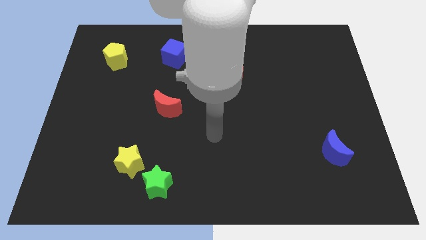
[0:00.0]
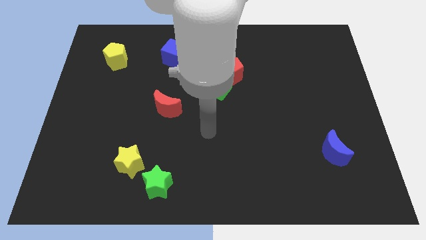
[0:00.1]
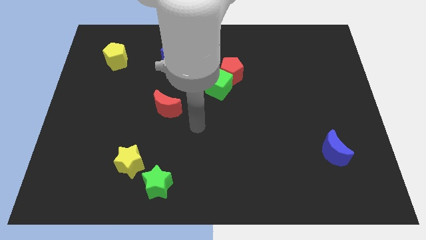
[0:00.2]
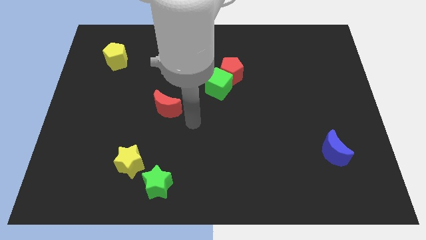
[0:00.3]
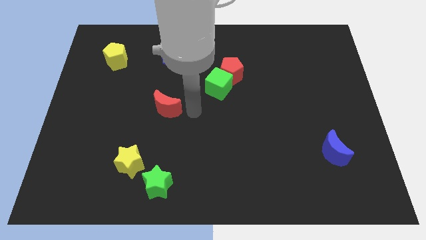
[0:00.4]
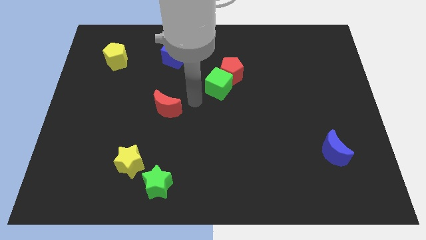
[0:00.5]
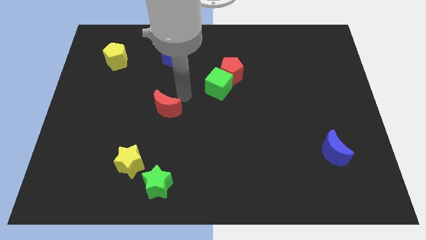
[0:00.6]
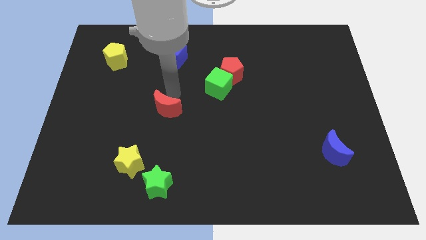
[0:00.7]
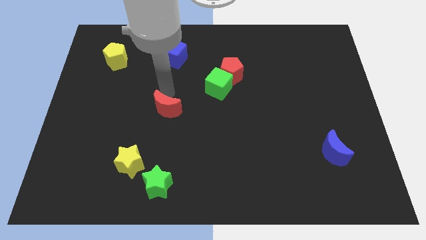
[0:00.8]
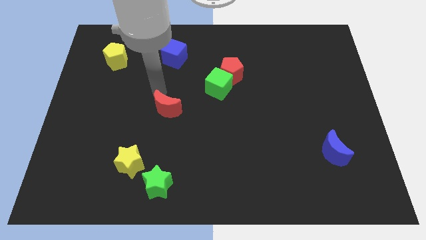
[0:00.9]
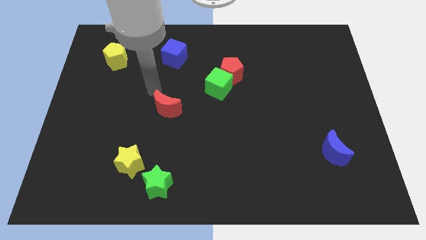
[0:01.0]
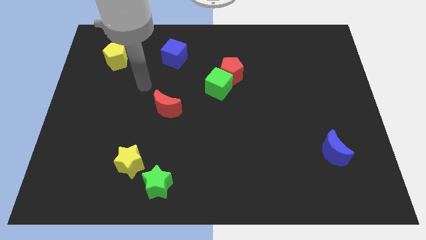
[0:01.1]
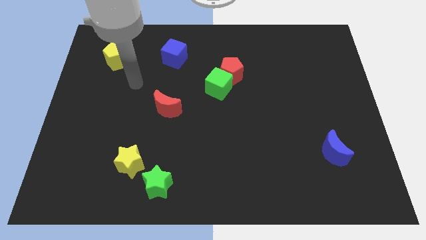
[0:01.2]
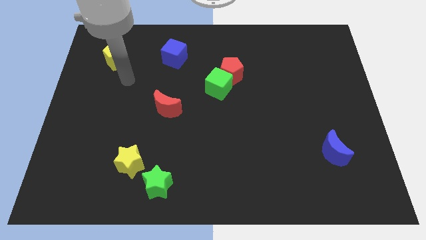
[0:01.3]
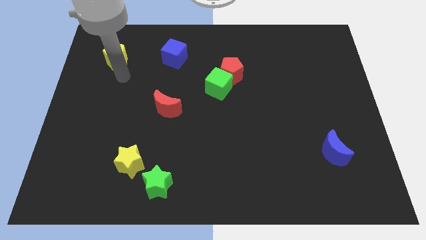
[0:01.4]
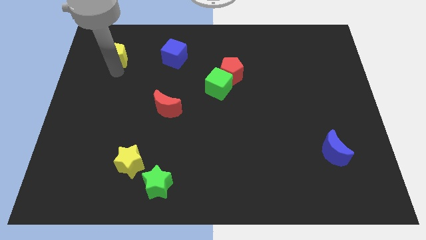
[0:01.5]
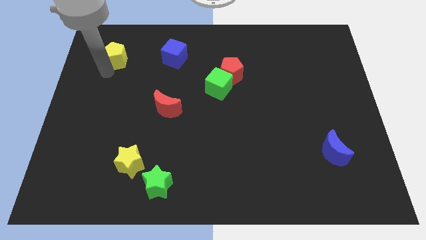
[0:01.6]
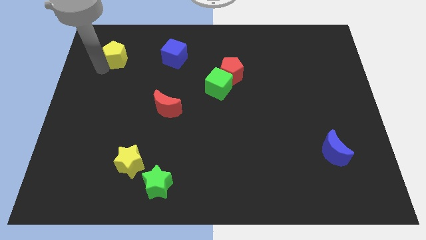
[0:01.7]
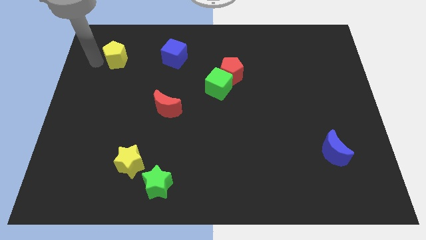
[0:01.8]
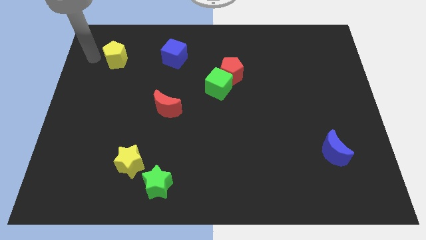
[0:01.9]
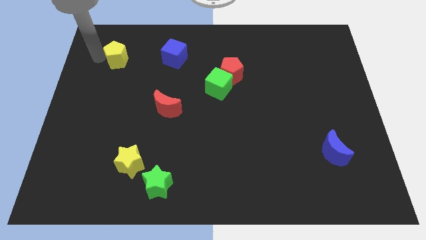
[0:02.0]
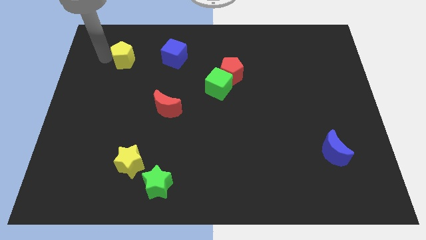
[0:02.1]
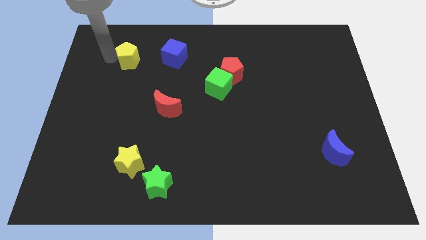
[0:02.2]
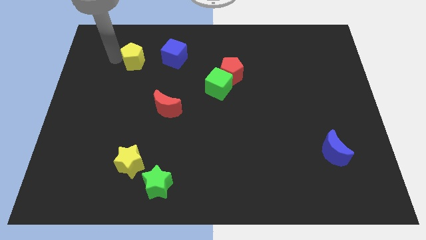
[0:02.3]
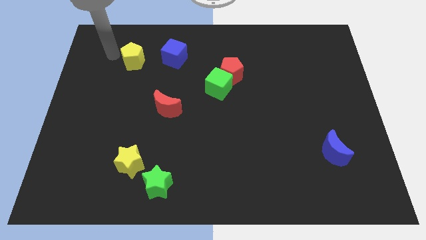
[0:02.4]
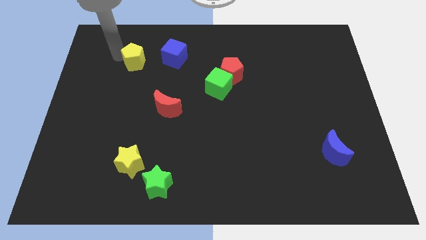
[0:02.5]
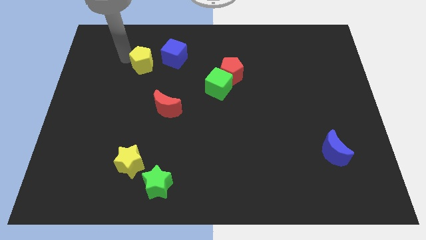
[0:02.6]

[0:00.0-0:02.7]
move the yellow pentagon a little bit right

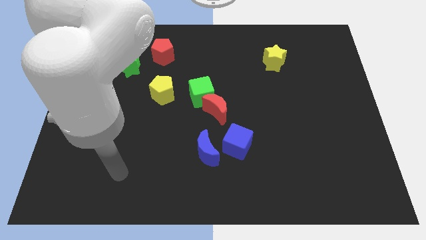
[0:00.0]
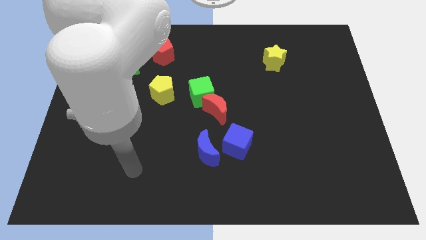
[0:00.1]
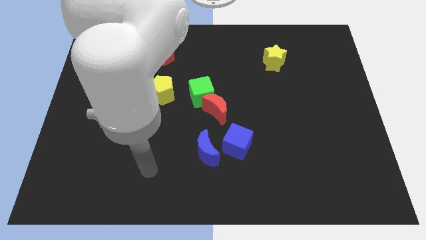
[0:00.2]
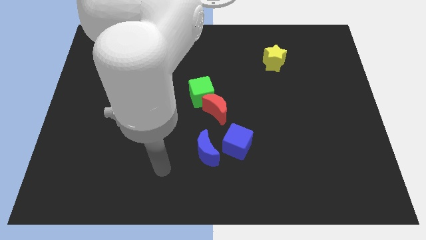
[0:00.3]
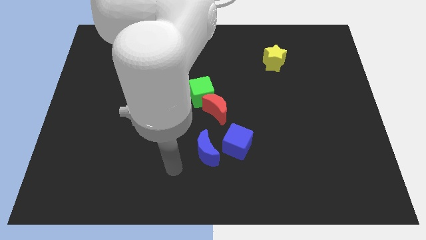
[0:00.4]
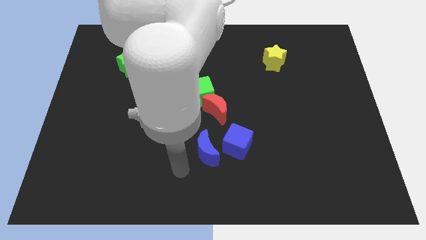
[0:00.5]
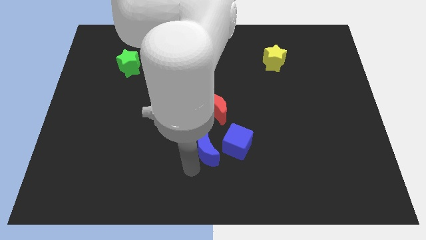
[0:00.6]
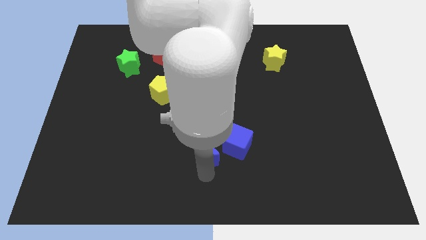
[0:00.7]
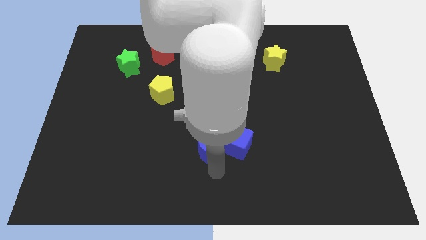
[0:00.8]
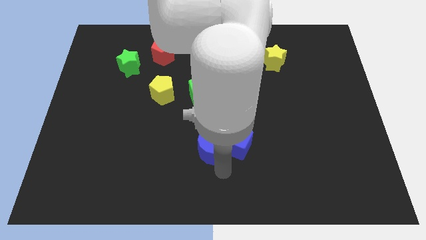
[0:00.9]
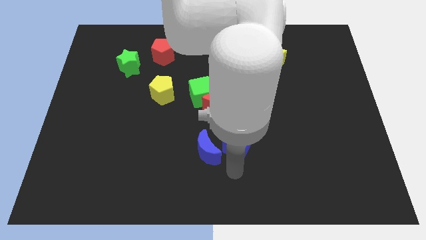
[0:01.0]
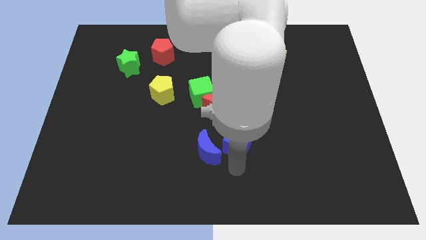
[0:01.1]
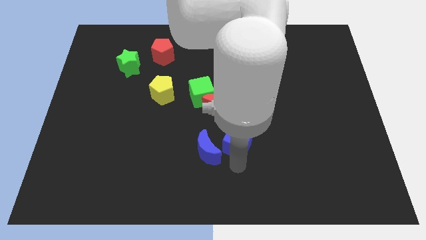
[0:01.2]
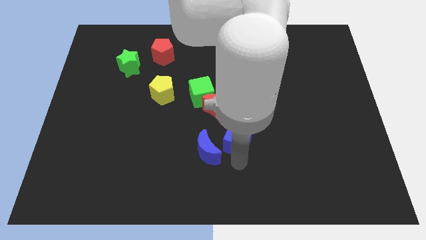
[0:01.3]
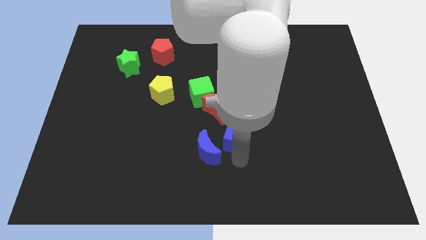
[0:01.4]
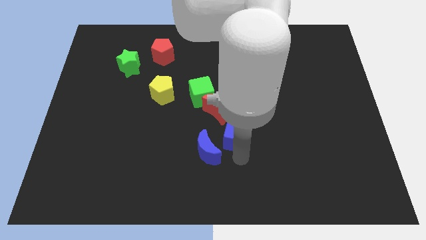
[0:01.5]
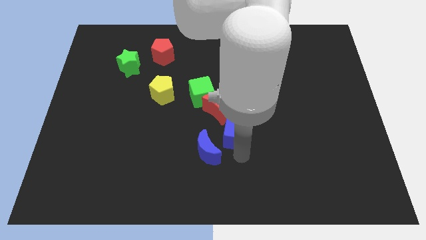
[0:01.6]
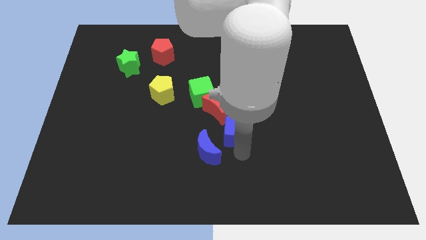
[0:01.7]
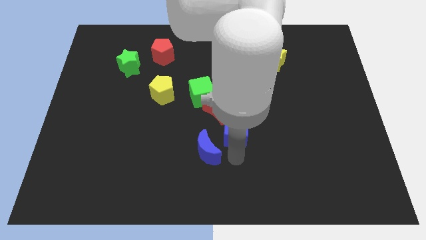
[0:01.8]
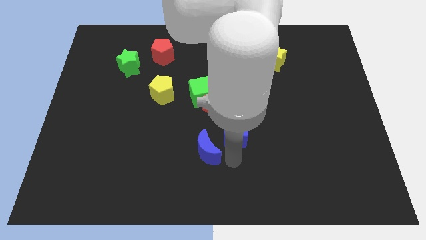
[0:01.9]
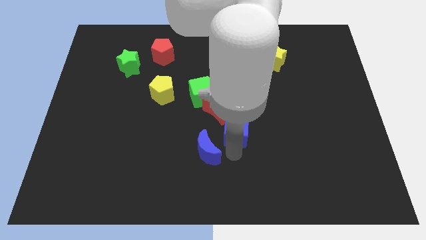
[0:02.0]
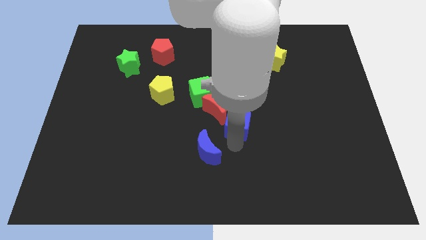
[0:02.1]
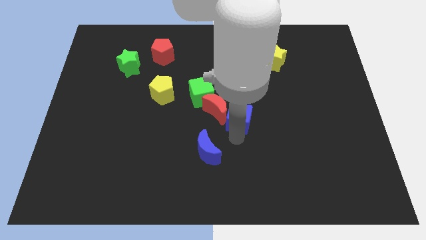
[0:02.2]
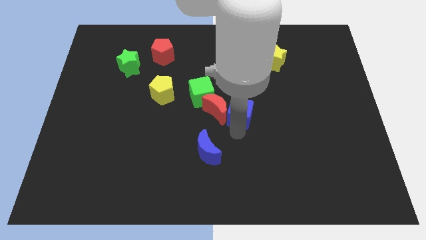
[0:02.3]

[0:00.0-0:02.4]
slightly push the blue cube upwards

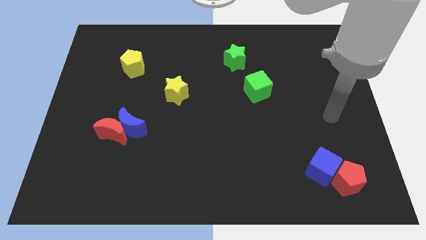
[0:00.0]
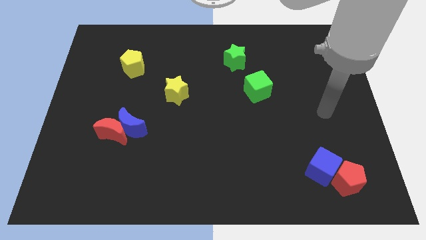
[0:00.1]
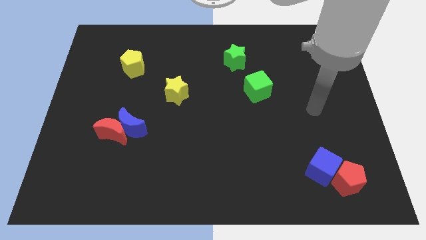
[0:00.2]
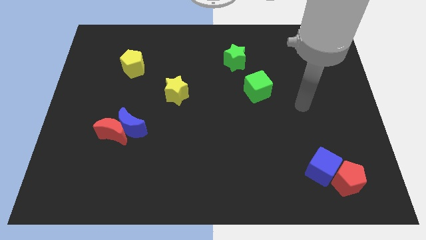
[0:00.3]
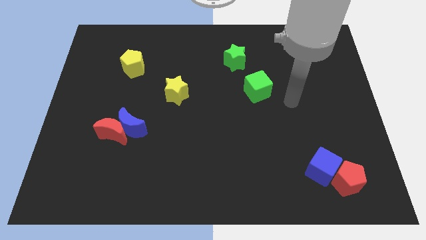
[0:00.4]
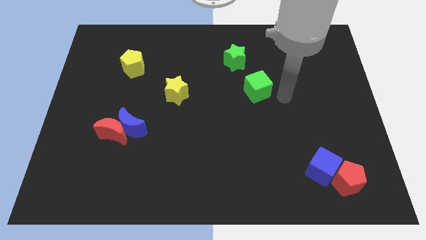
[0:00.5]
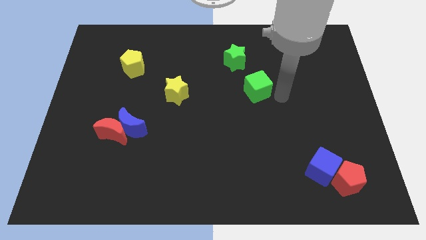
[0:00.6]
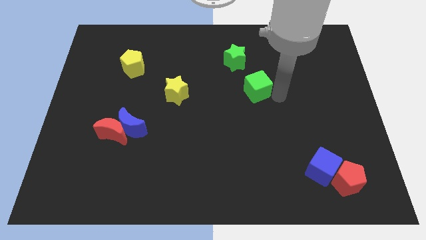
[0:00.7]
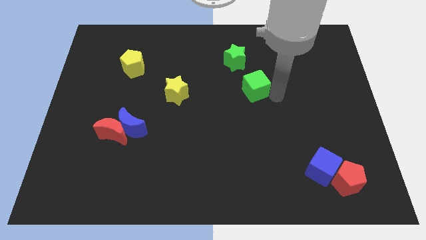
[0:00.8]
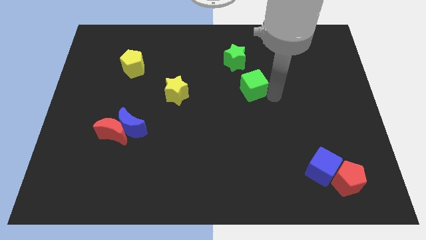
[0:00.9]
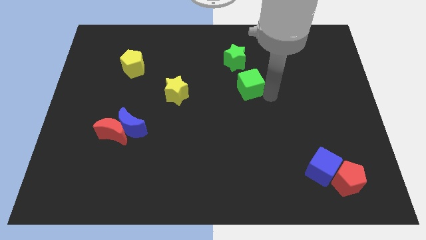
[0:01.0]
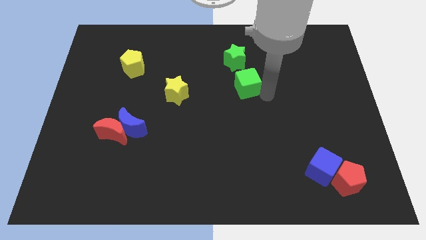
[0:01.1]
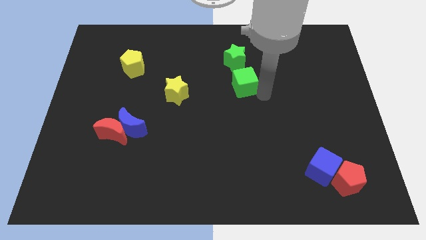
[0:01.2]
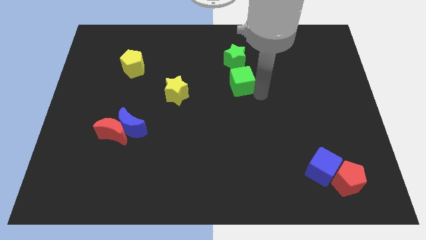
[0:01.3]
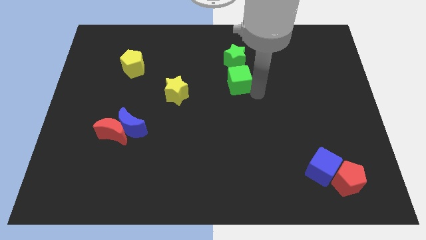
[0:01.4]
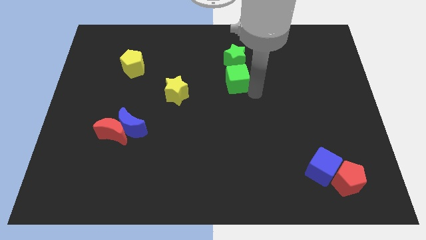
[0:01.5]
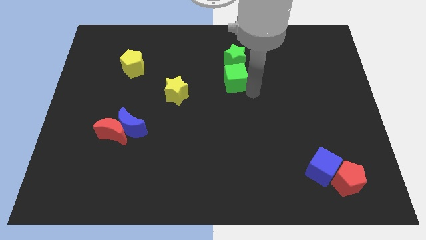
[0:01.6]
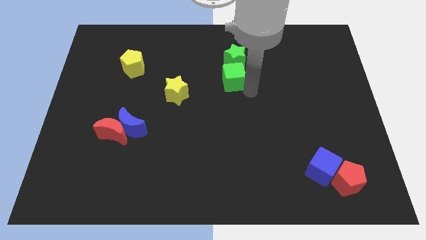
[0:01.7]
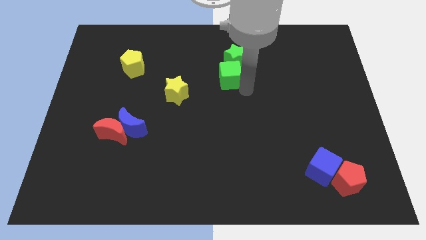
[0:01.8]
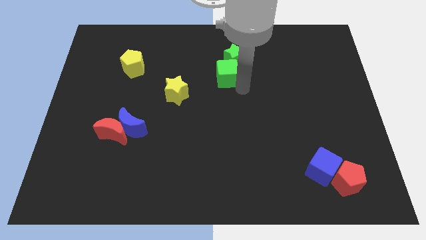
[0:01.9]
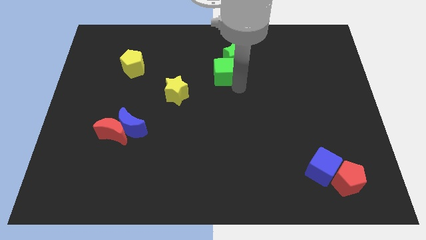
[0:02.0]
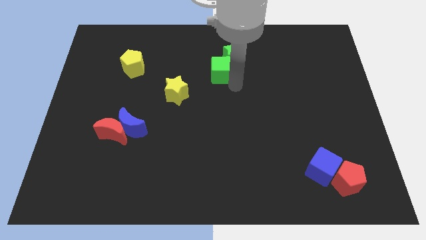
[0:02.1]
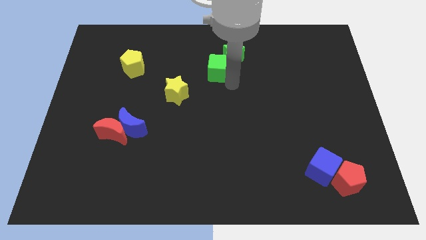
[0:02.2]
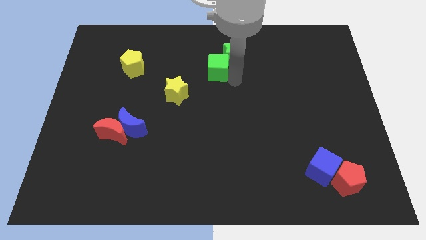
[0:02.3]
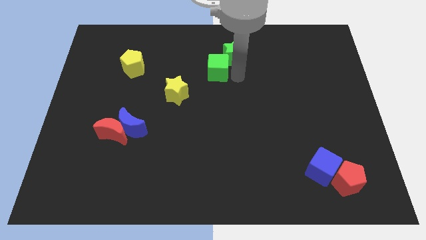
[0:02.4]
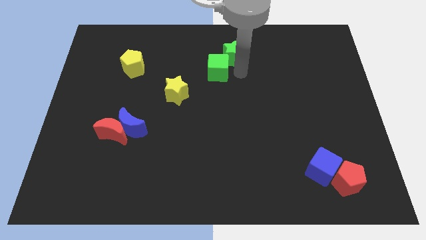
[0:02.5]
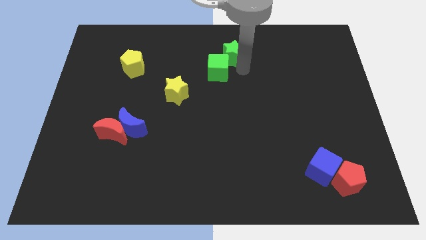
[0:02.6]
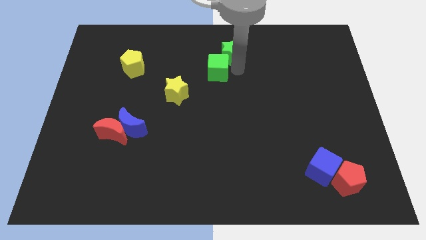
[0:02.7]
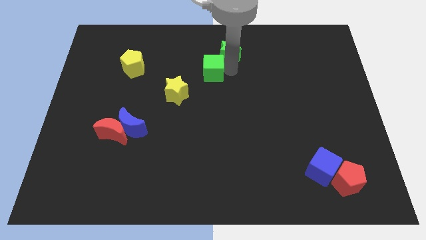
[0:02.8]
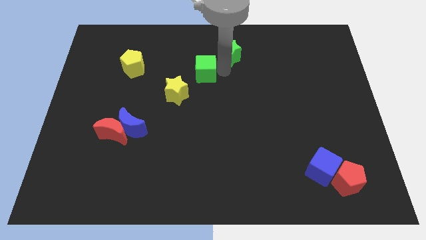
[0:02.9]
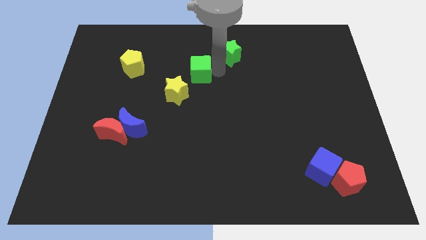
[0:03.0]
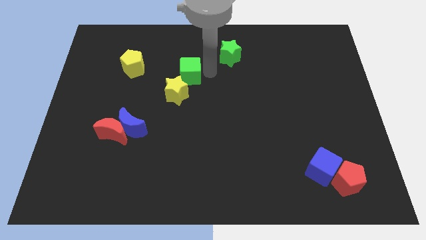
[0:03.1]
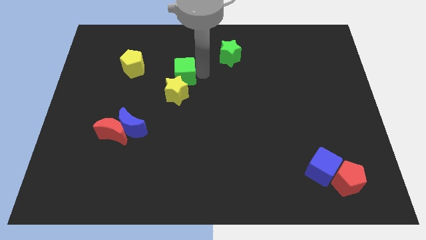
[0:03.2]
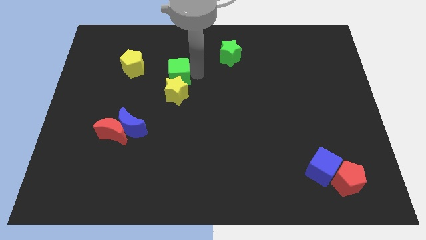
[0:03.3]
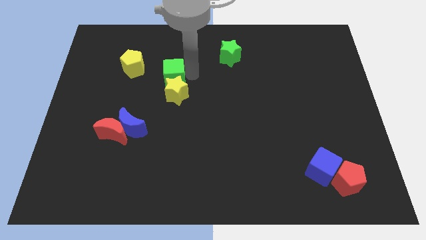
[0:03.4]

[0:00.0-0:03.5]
slide the green cube left

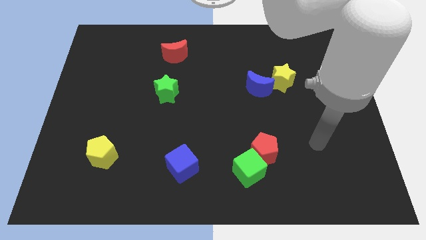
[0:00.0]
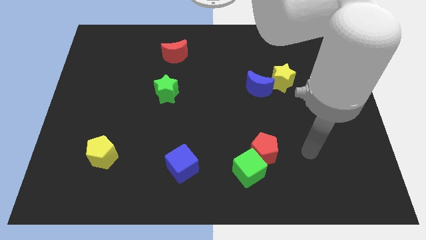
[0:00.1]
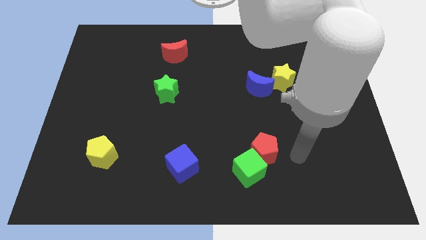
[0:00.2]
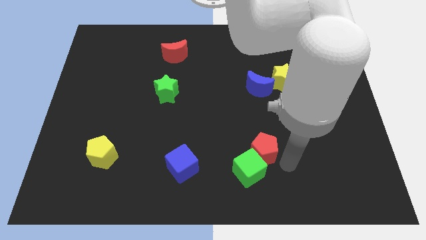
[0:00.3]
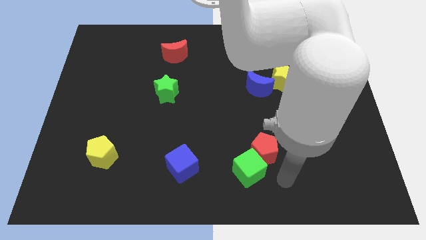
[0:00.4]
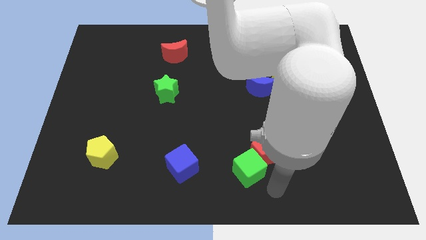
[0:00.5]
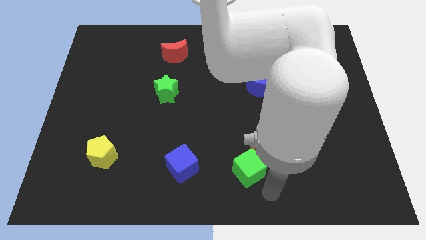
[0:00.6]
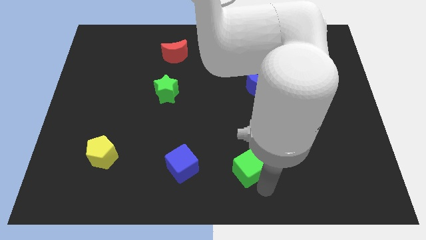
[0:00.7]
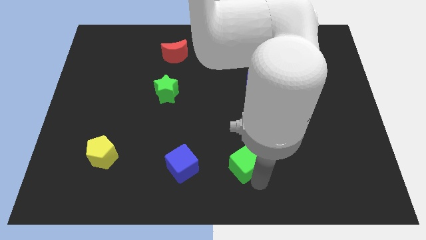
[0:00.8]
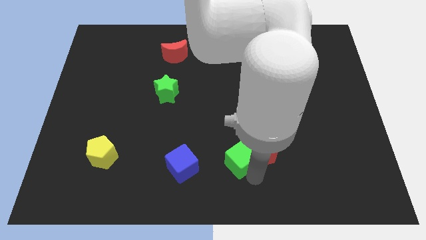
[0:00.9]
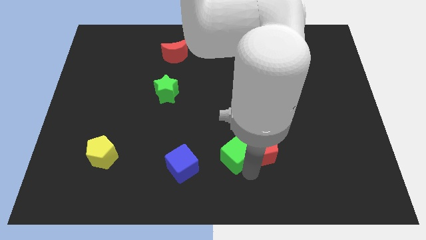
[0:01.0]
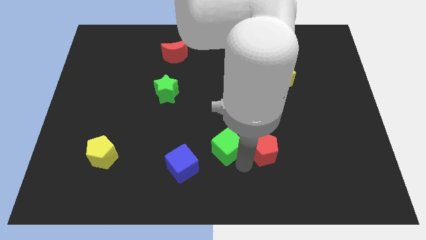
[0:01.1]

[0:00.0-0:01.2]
push the green cube a little bit upwards and left diagonally
